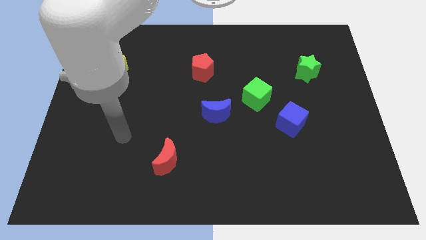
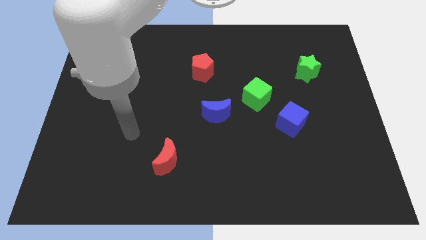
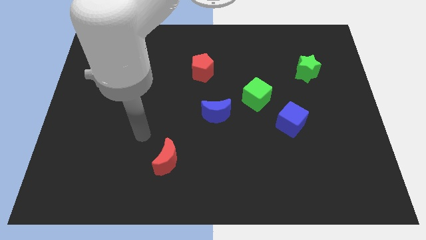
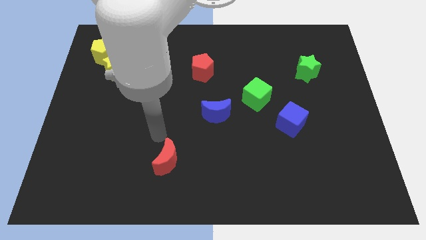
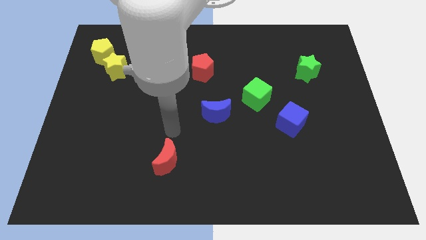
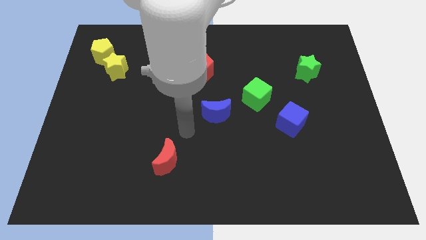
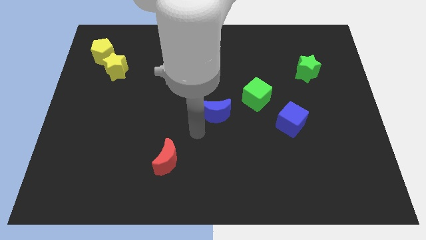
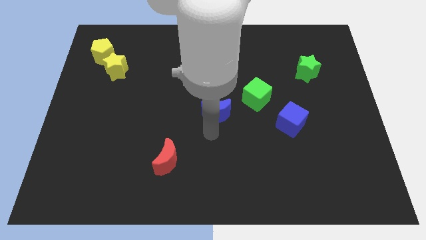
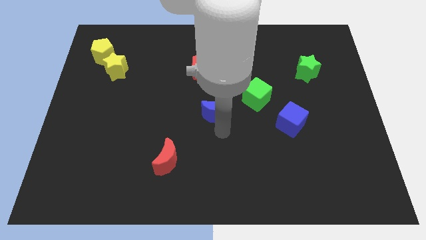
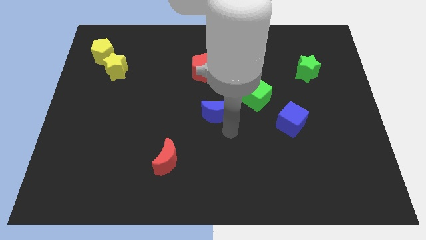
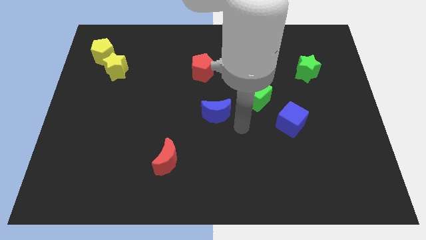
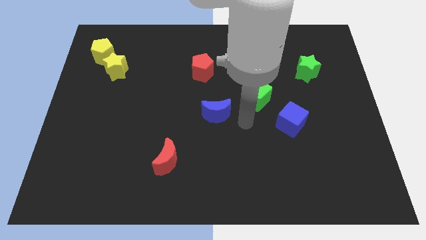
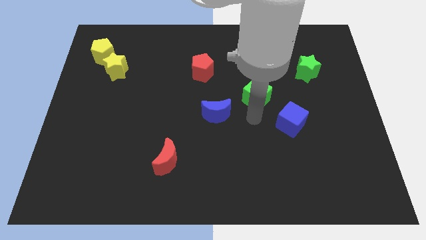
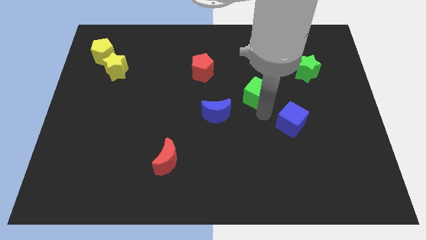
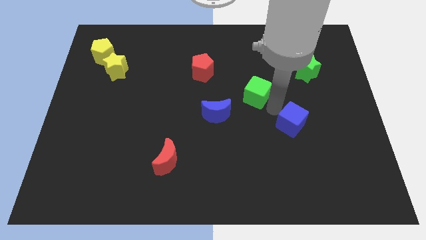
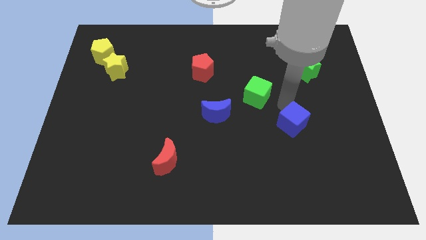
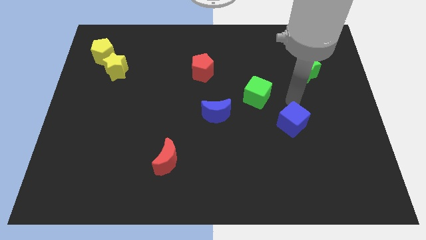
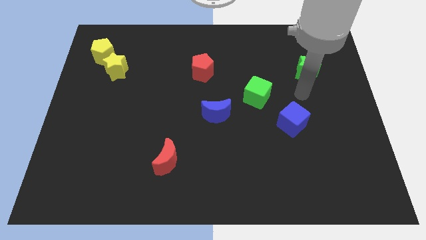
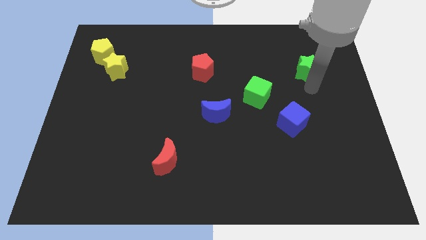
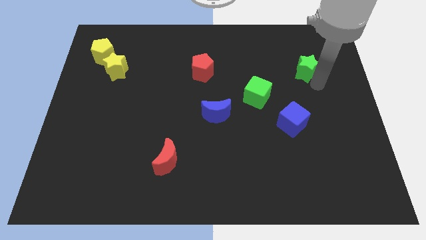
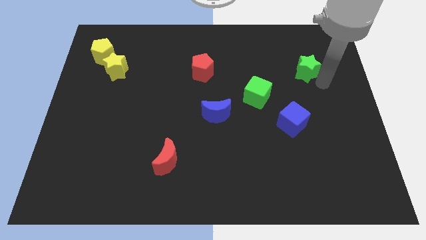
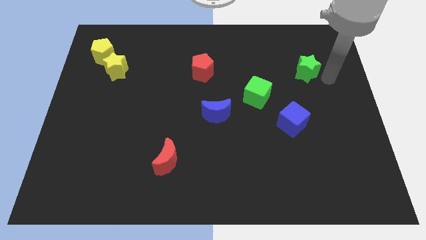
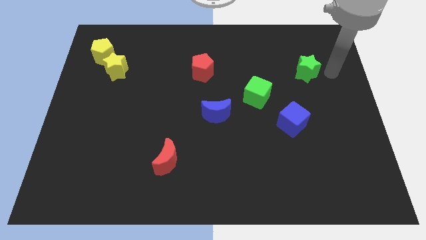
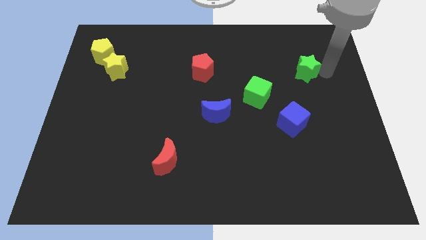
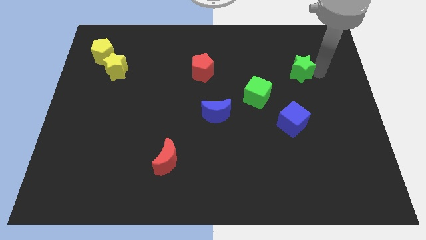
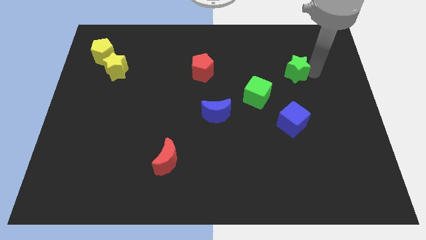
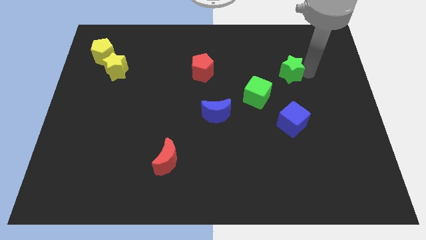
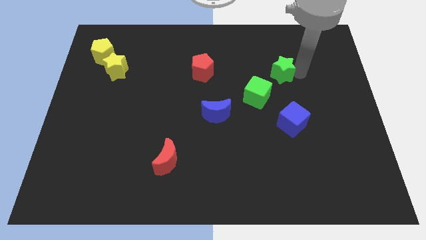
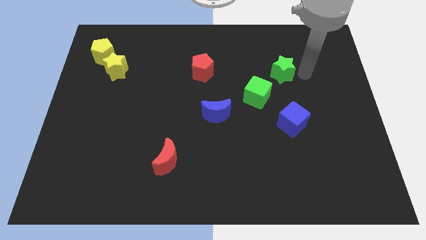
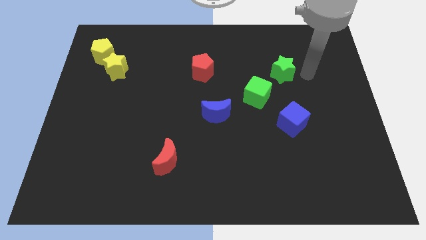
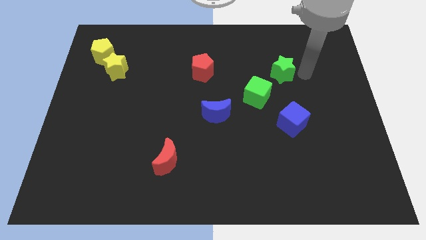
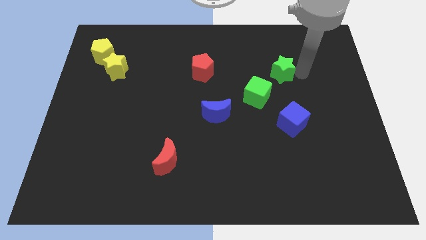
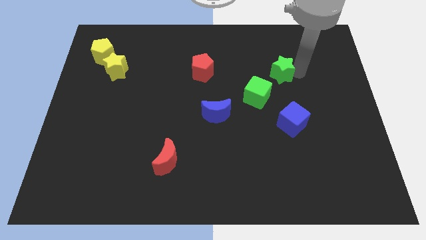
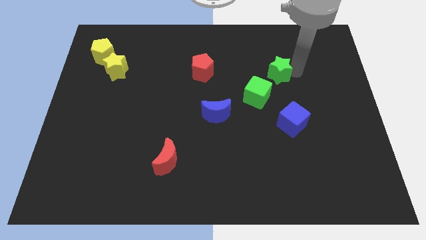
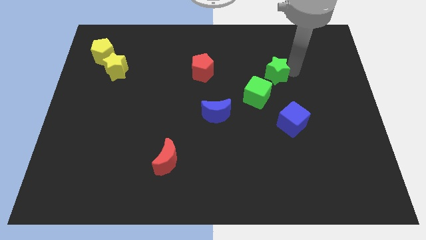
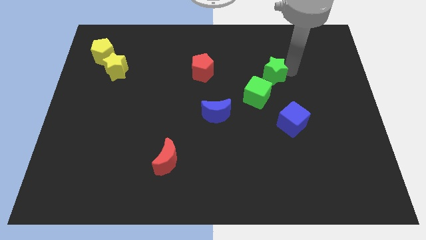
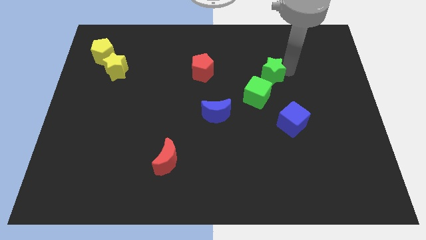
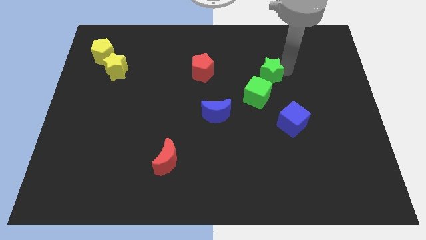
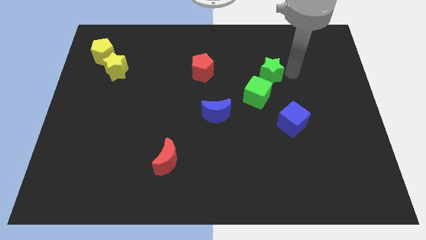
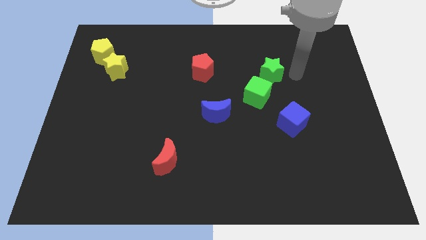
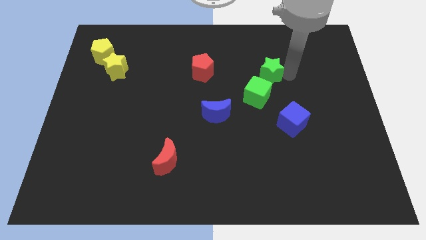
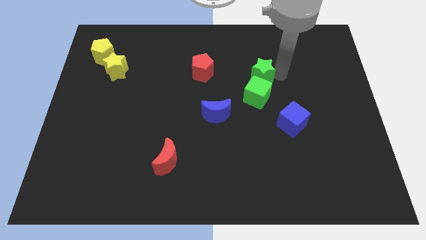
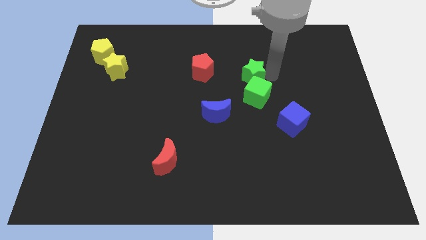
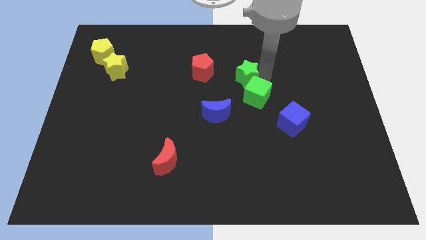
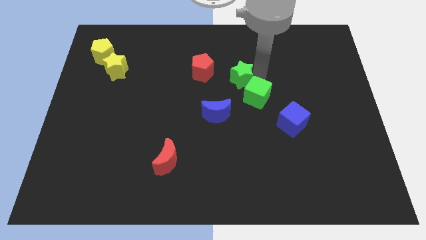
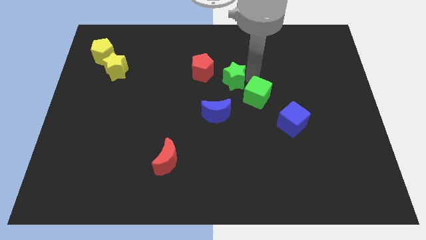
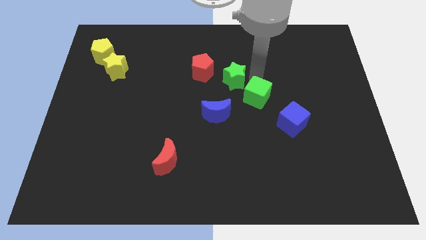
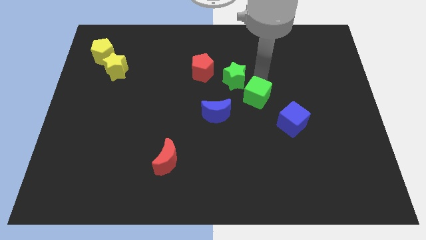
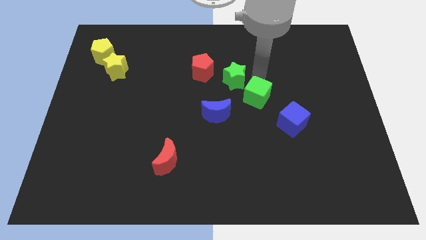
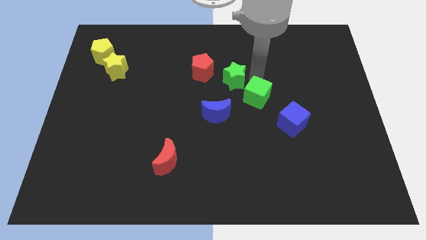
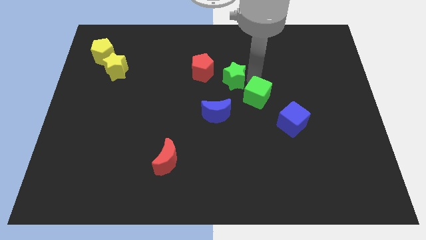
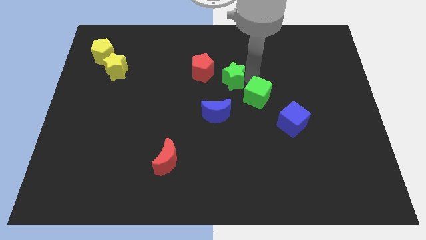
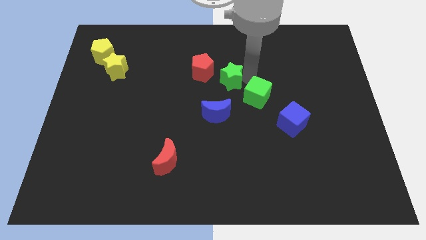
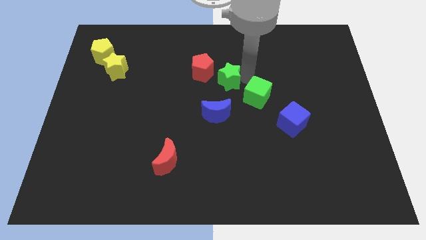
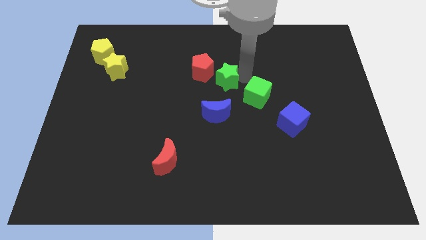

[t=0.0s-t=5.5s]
push the green star to the left

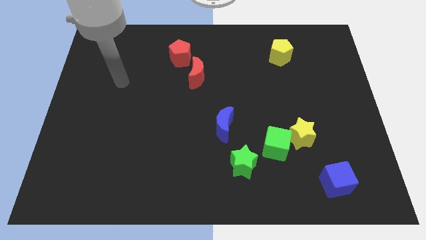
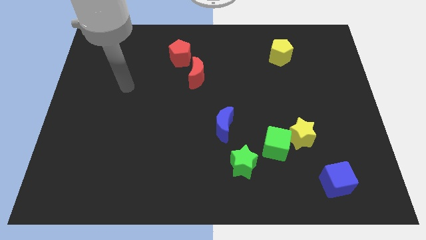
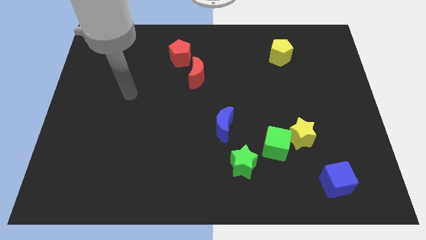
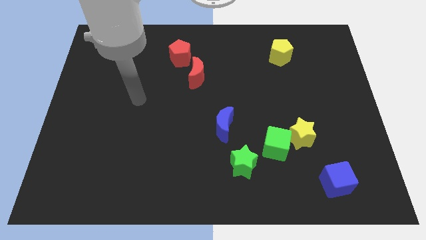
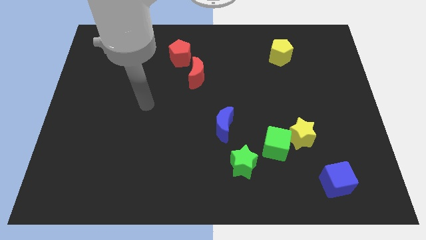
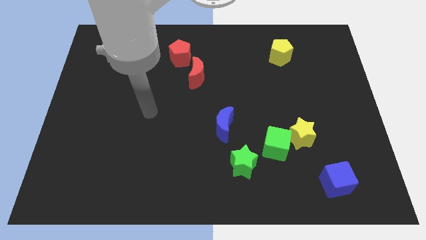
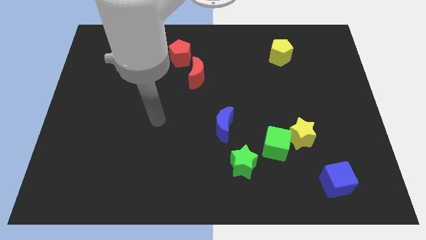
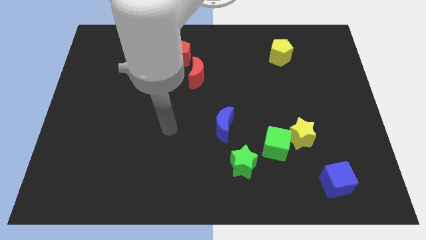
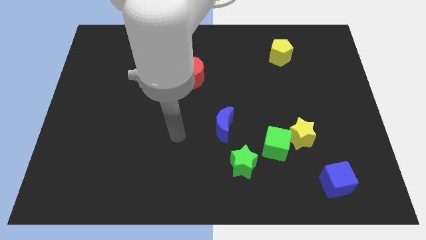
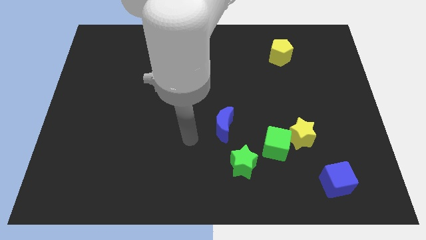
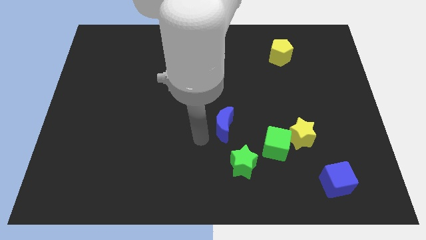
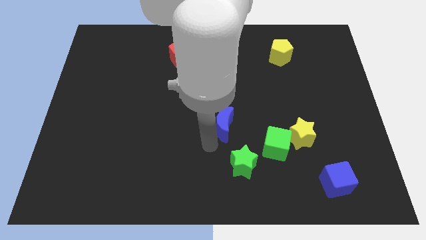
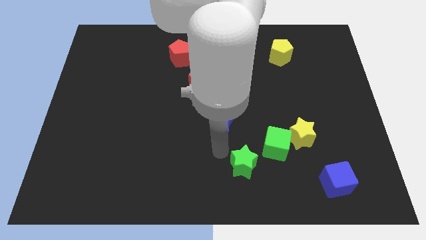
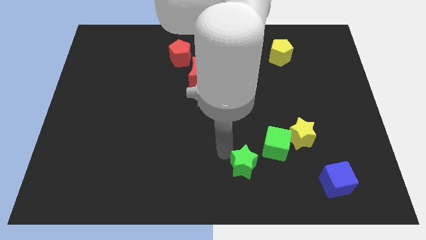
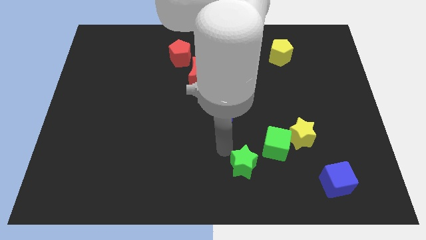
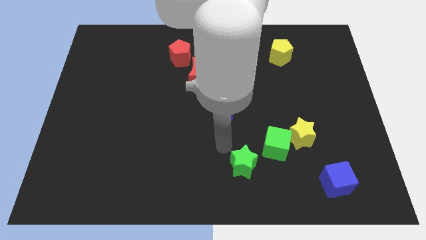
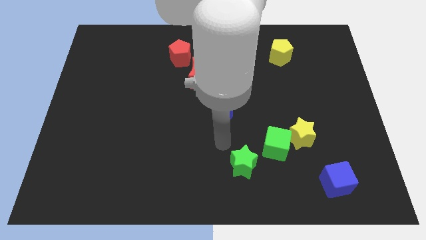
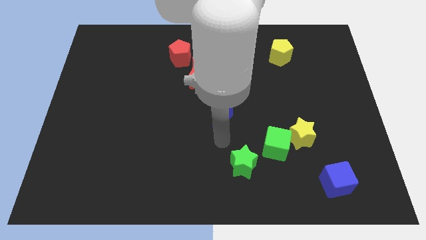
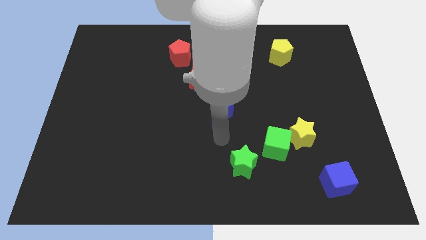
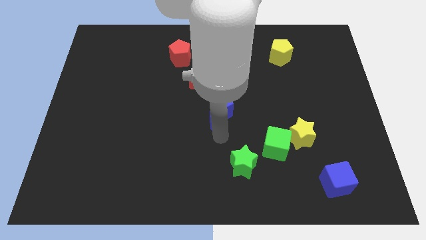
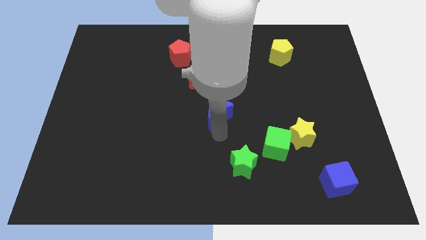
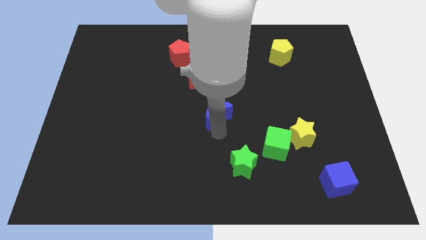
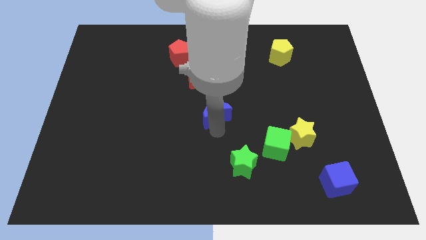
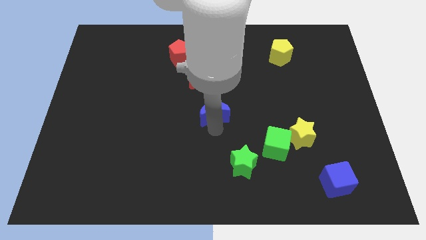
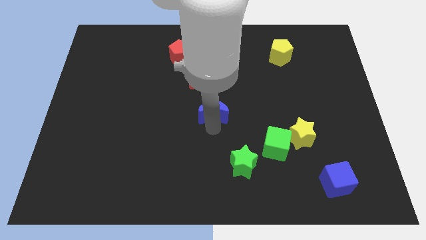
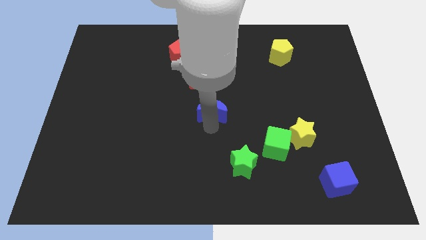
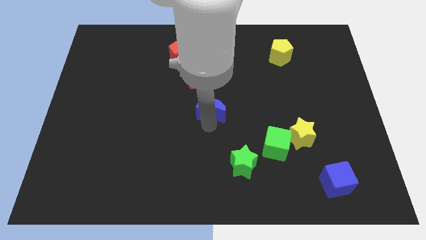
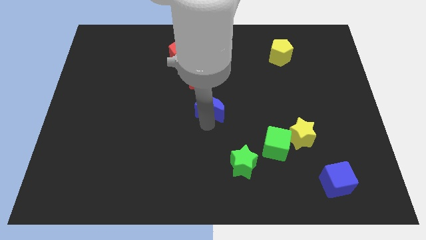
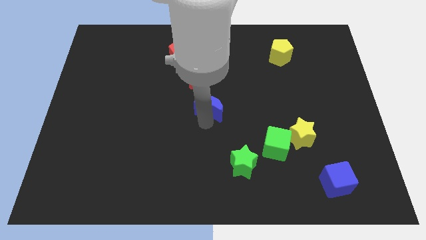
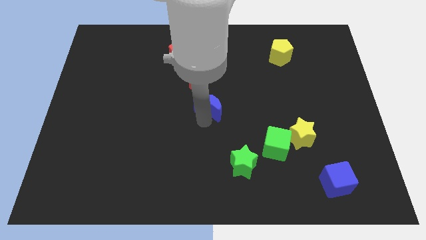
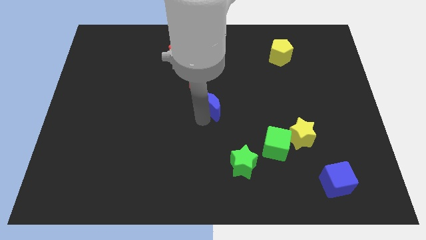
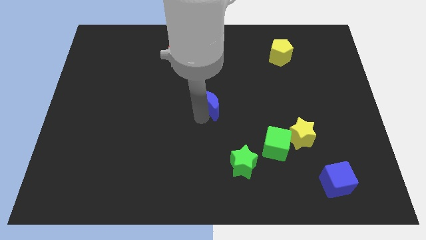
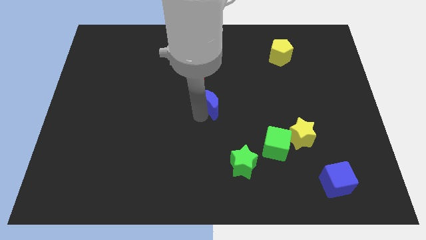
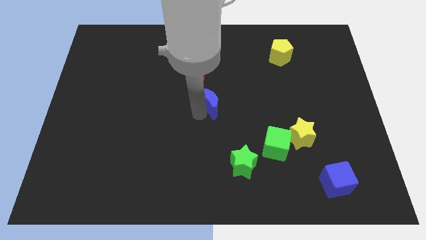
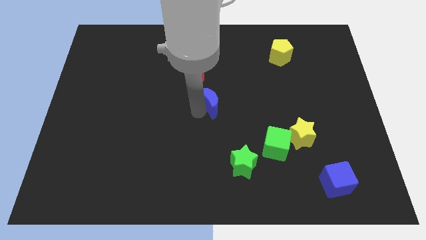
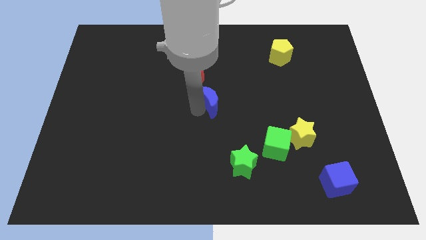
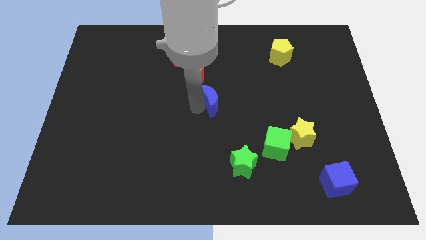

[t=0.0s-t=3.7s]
slide the blue moon a little up
